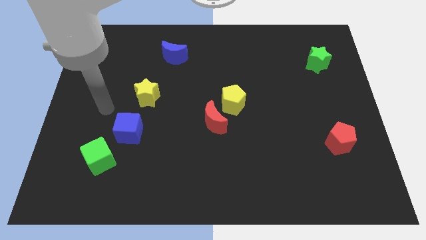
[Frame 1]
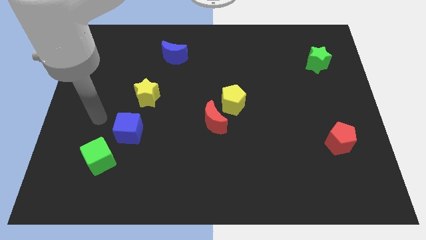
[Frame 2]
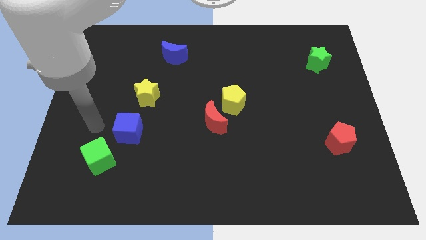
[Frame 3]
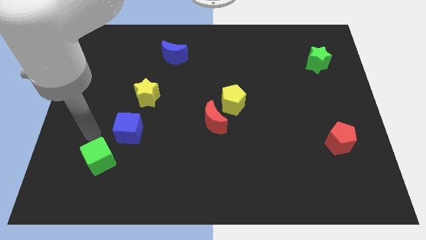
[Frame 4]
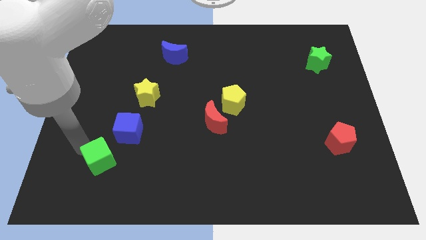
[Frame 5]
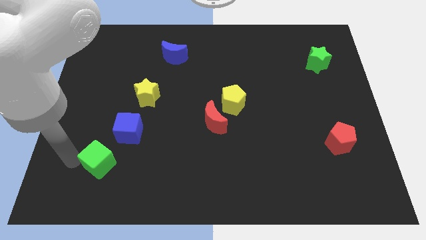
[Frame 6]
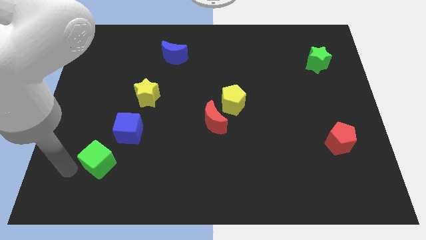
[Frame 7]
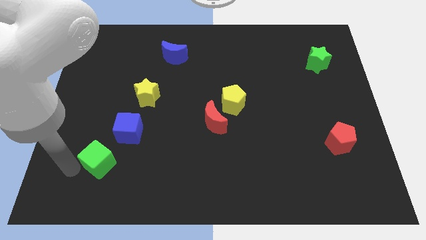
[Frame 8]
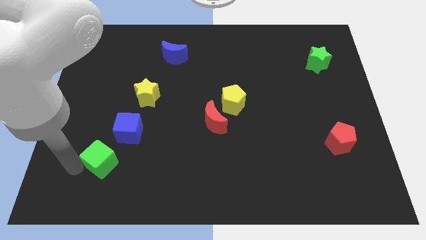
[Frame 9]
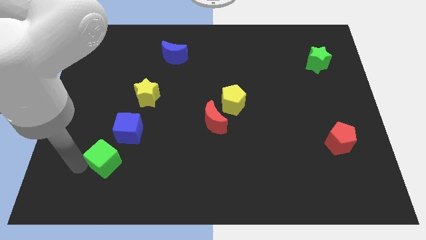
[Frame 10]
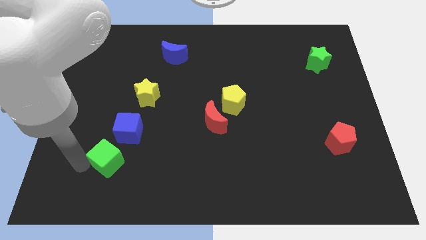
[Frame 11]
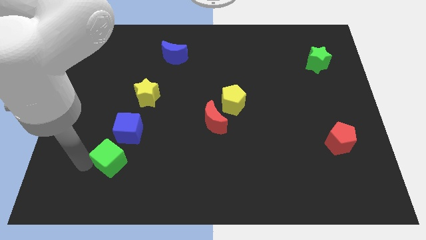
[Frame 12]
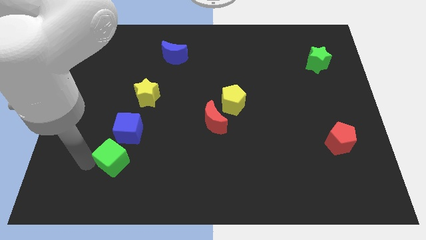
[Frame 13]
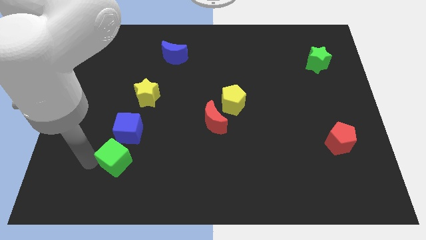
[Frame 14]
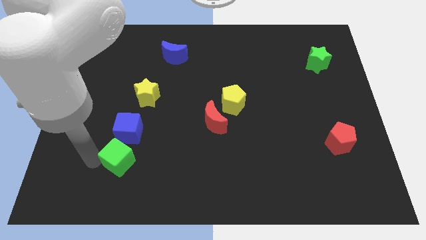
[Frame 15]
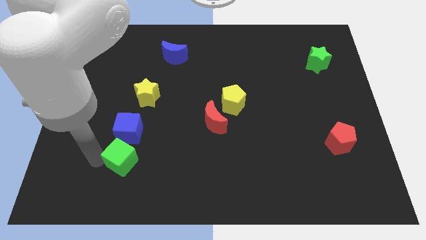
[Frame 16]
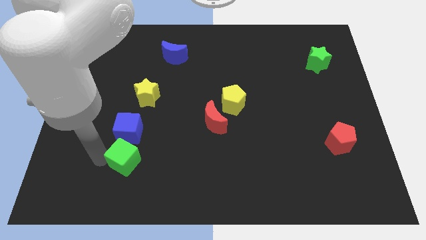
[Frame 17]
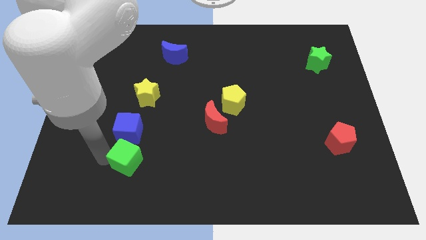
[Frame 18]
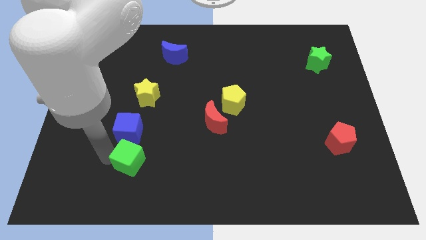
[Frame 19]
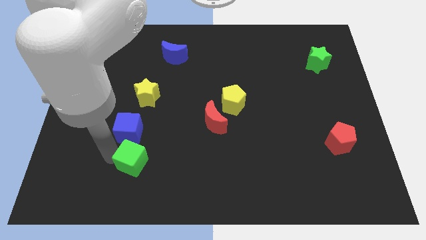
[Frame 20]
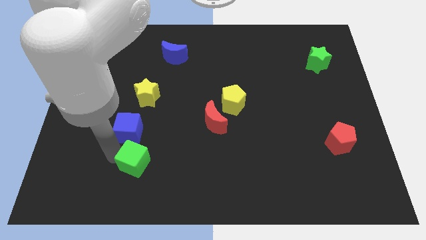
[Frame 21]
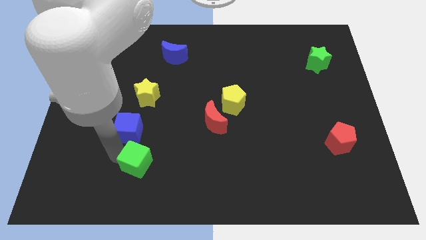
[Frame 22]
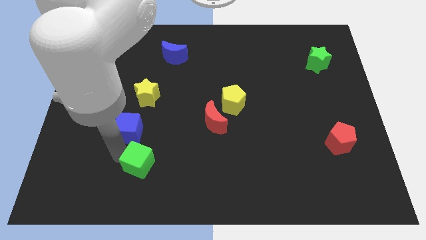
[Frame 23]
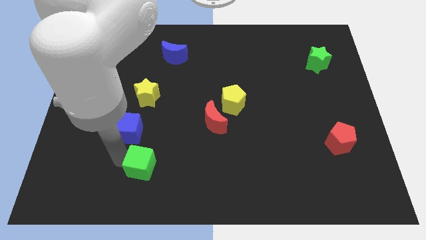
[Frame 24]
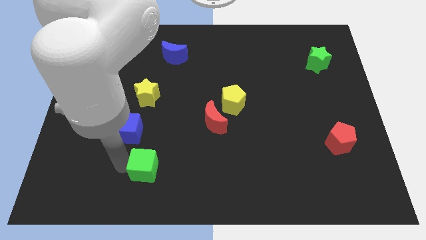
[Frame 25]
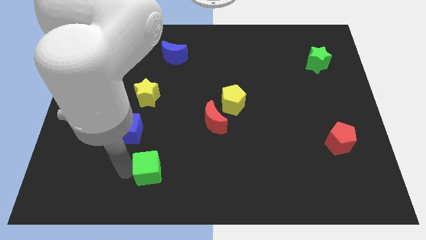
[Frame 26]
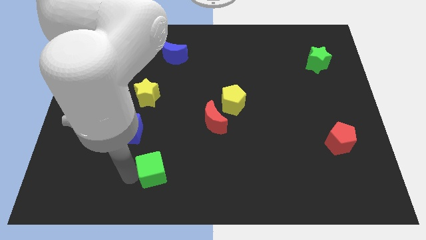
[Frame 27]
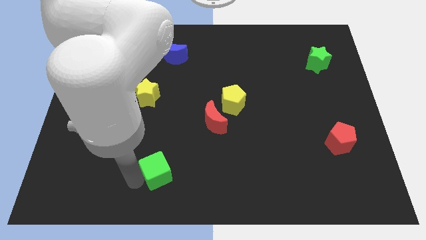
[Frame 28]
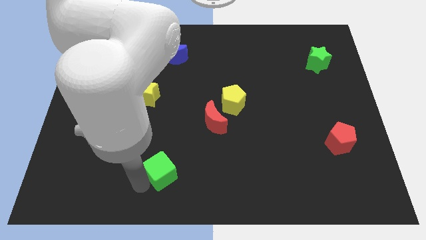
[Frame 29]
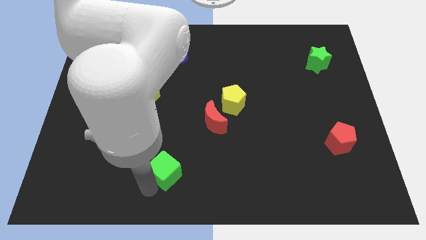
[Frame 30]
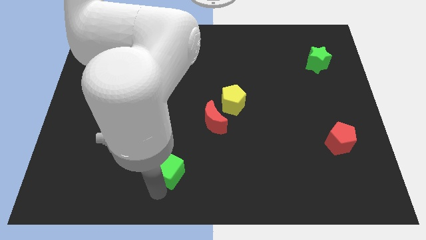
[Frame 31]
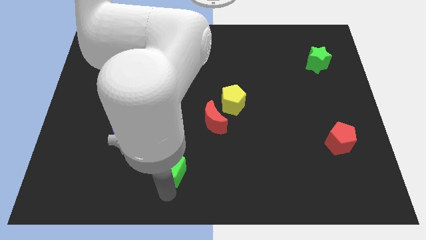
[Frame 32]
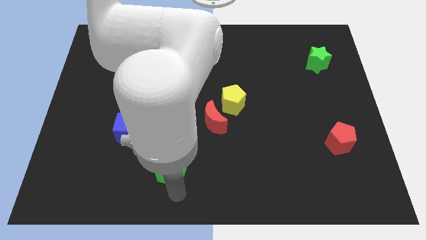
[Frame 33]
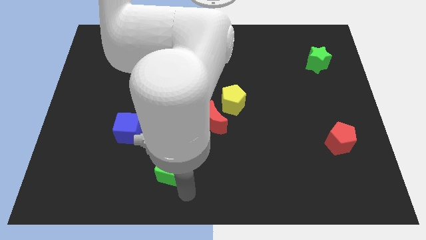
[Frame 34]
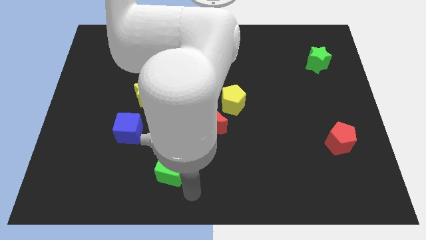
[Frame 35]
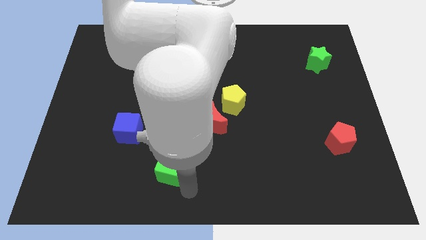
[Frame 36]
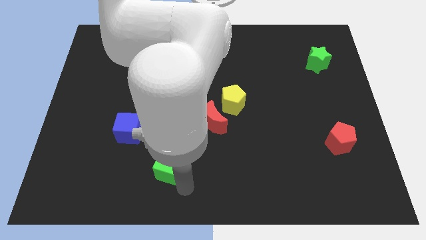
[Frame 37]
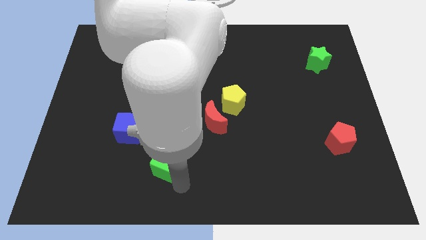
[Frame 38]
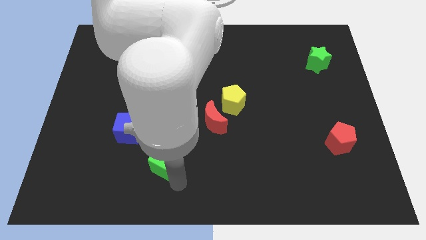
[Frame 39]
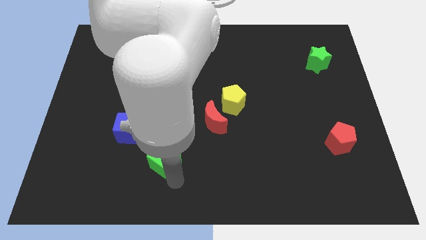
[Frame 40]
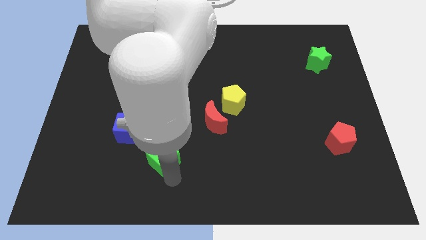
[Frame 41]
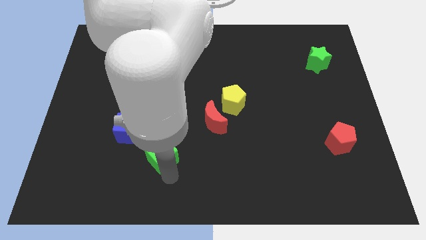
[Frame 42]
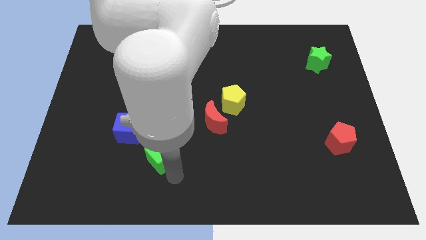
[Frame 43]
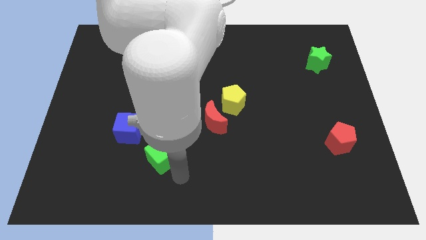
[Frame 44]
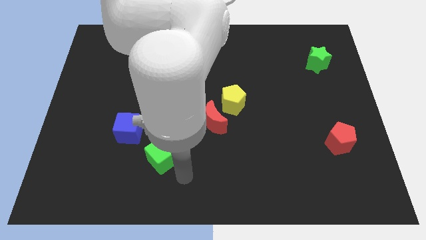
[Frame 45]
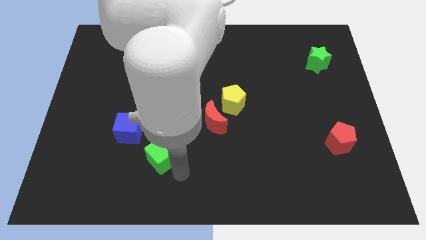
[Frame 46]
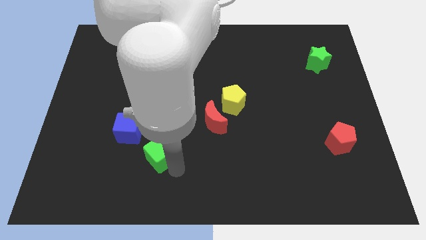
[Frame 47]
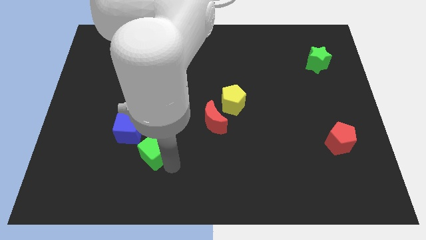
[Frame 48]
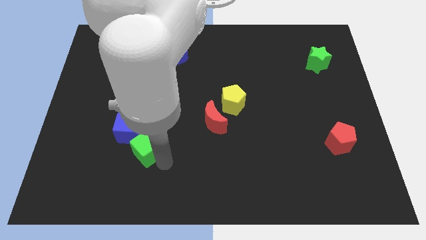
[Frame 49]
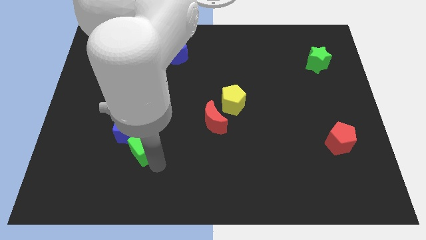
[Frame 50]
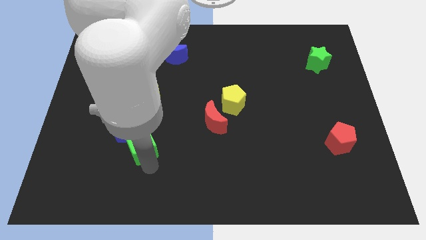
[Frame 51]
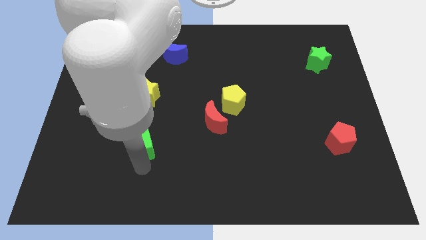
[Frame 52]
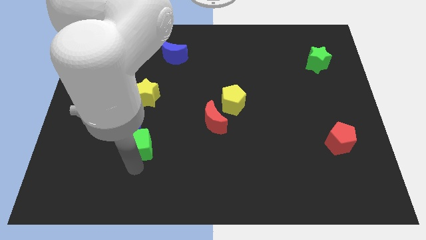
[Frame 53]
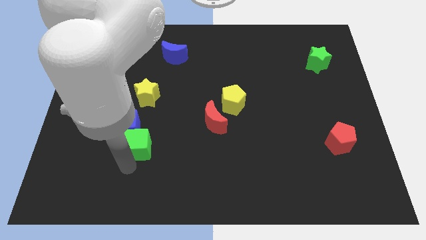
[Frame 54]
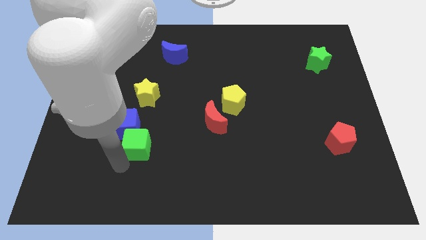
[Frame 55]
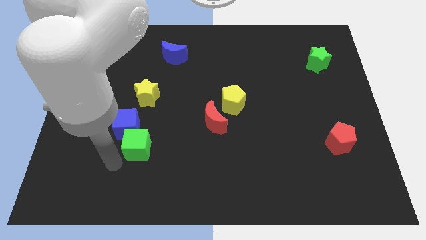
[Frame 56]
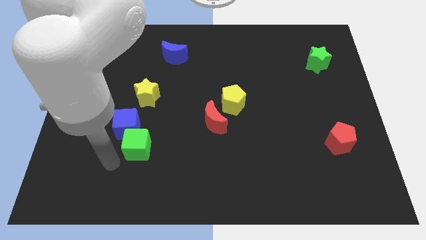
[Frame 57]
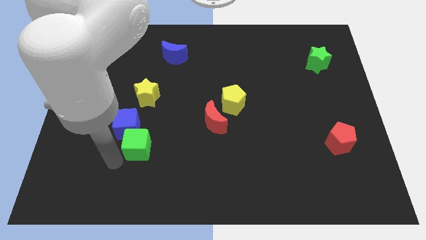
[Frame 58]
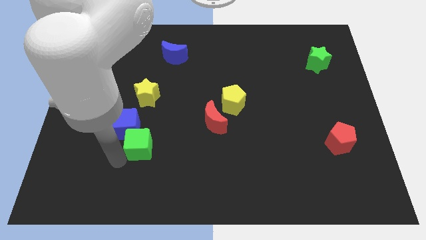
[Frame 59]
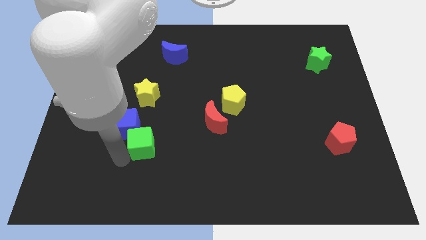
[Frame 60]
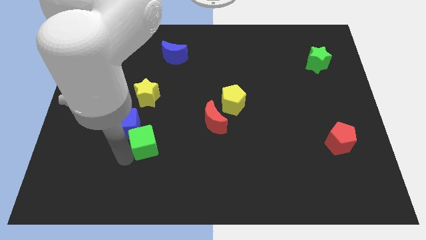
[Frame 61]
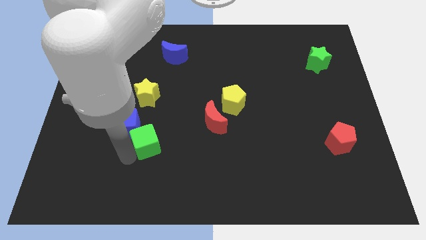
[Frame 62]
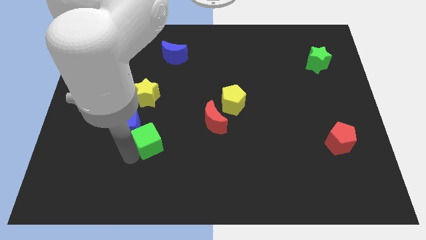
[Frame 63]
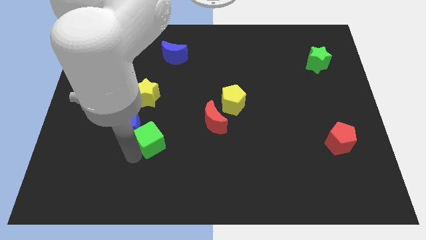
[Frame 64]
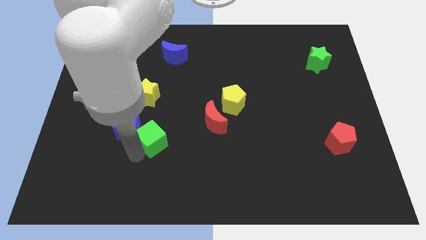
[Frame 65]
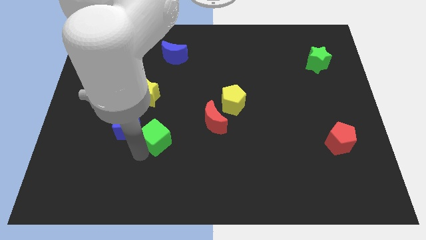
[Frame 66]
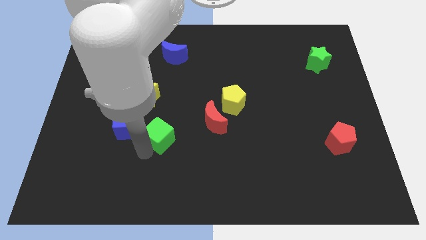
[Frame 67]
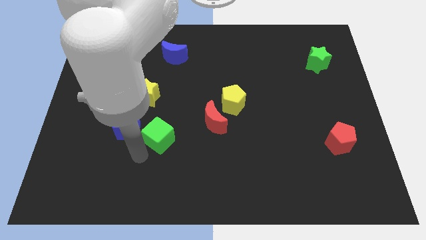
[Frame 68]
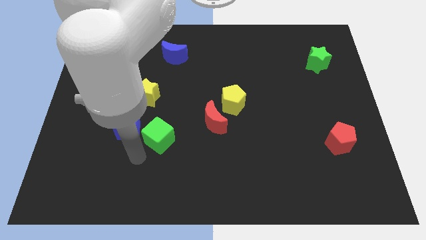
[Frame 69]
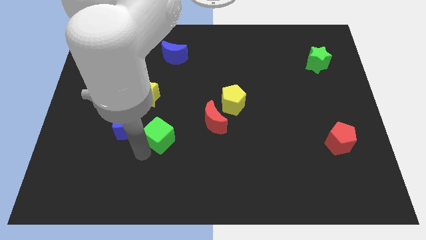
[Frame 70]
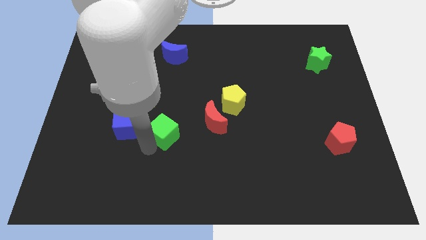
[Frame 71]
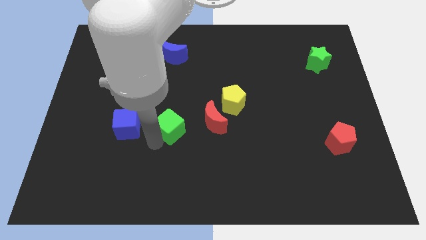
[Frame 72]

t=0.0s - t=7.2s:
push the green cube to the center of the board

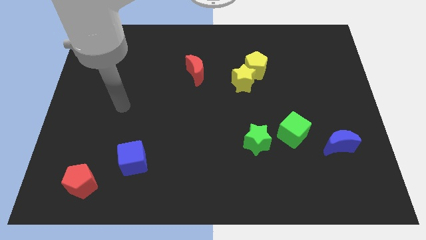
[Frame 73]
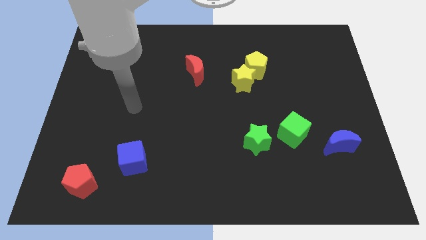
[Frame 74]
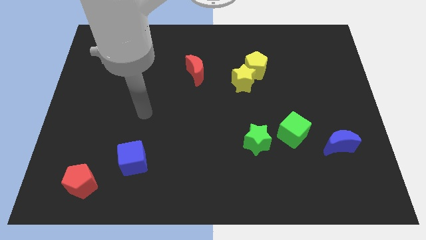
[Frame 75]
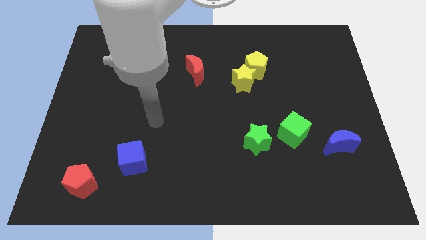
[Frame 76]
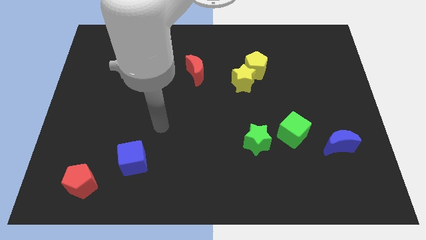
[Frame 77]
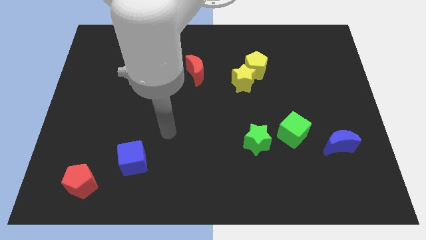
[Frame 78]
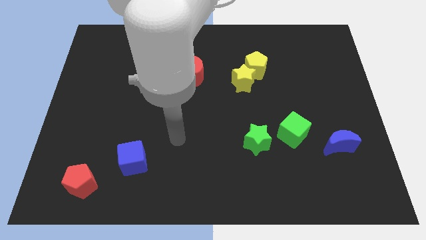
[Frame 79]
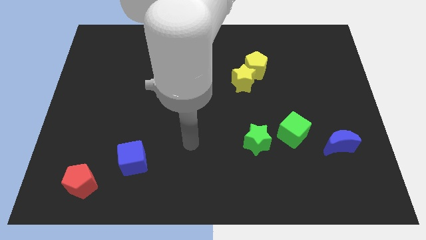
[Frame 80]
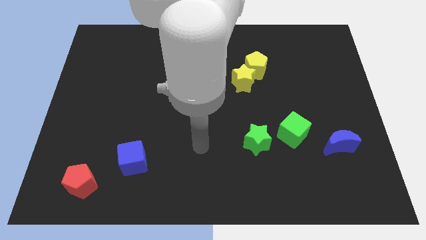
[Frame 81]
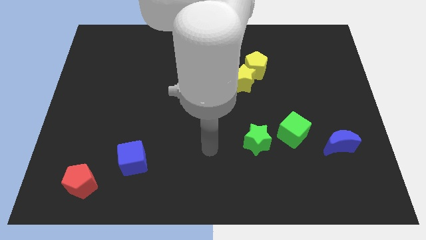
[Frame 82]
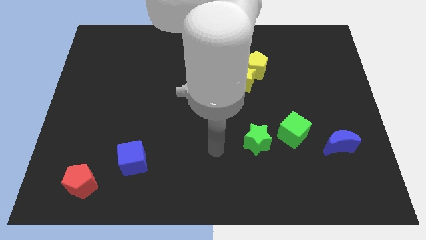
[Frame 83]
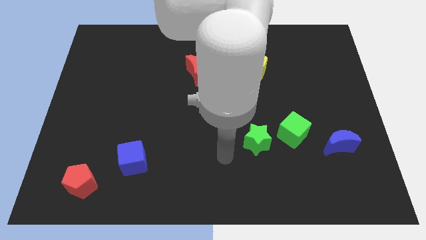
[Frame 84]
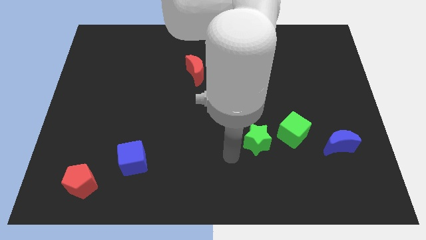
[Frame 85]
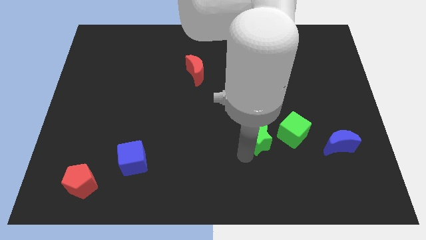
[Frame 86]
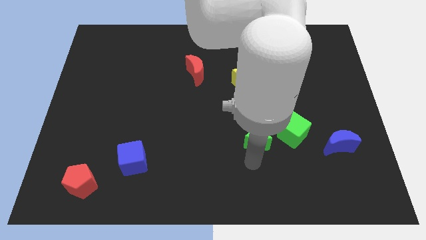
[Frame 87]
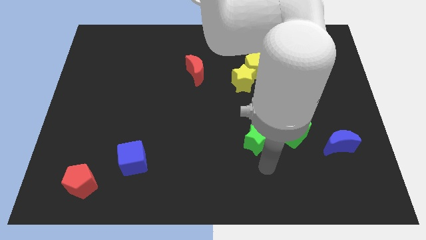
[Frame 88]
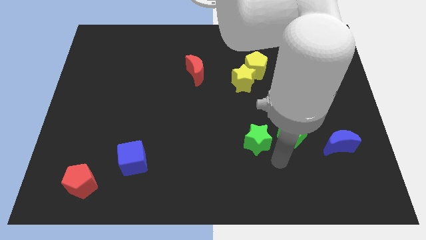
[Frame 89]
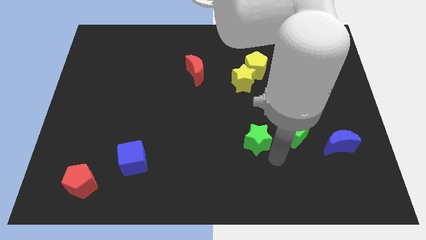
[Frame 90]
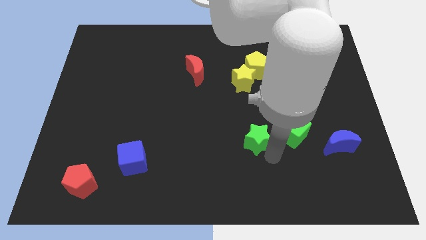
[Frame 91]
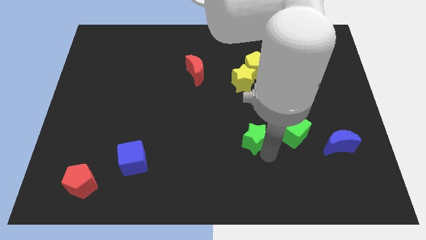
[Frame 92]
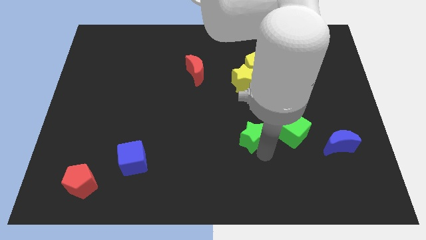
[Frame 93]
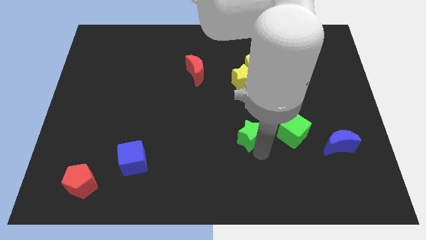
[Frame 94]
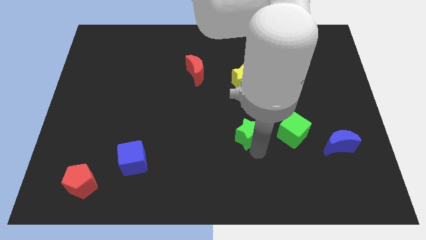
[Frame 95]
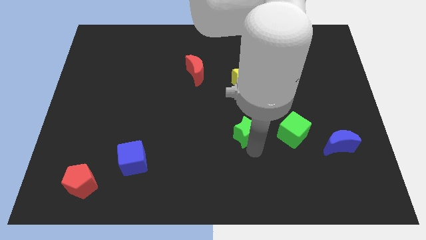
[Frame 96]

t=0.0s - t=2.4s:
put the green star to the center
